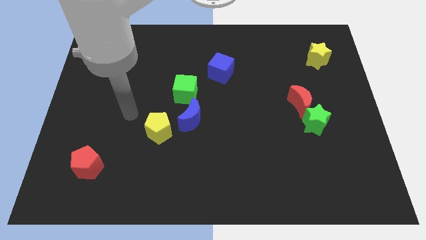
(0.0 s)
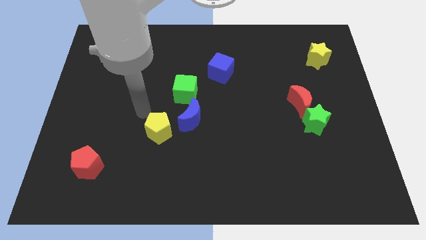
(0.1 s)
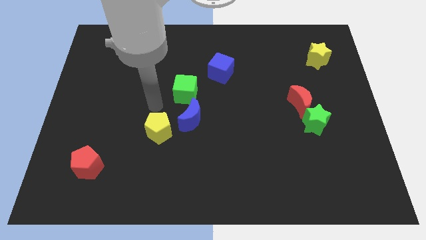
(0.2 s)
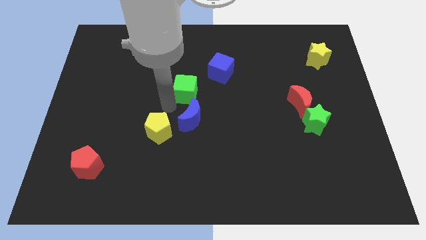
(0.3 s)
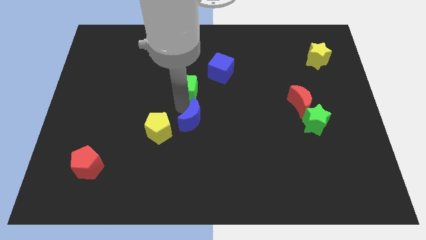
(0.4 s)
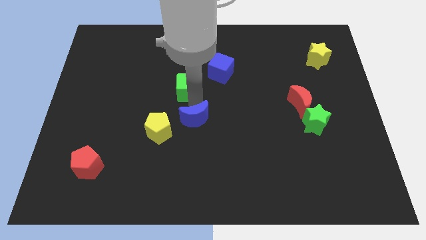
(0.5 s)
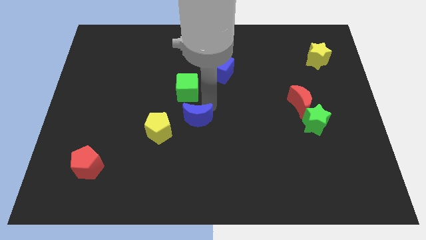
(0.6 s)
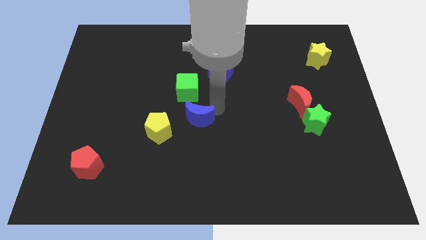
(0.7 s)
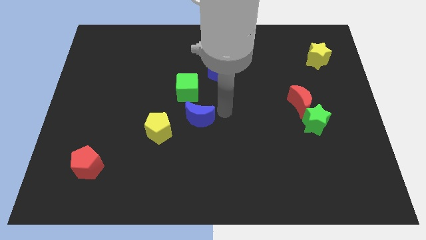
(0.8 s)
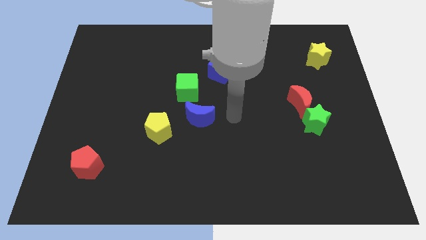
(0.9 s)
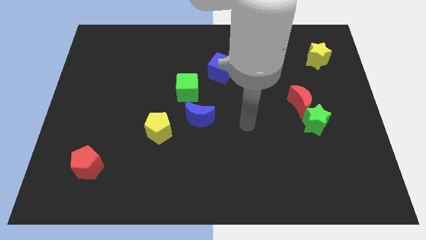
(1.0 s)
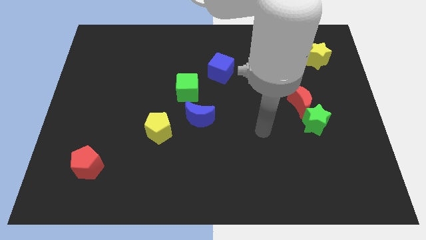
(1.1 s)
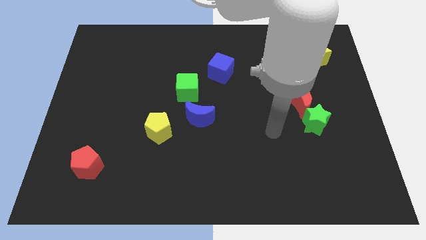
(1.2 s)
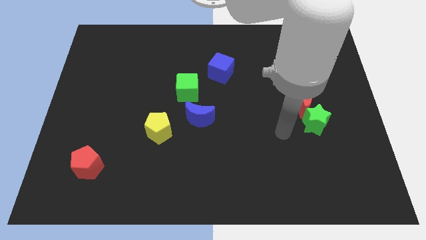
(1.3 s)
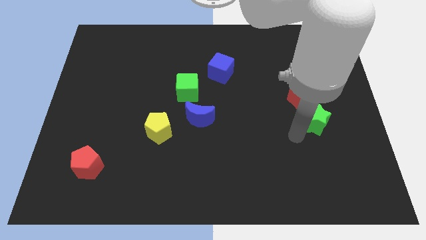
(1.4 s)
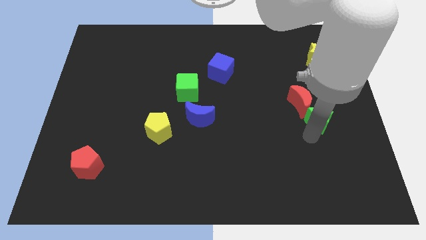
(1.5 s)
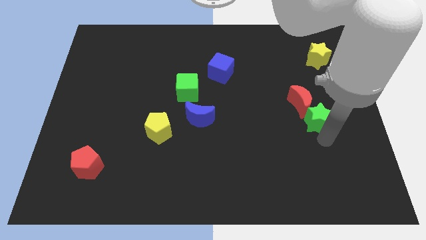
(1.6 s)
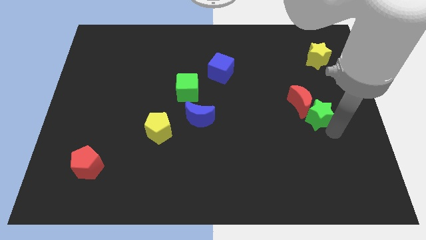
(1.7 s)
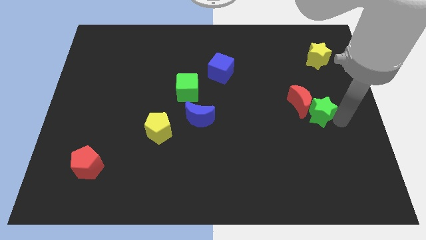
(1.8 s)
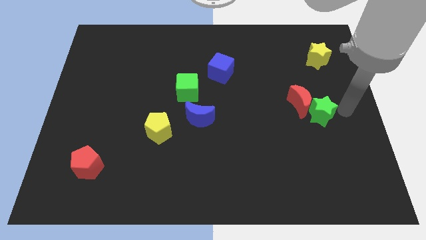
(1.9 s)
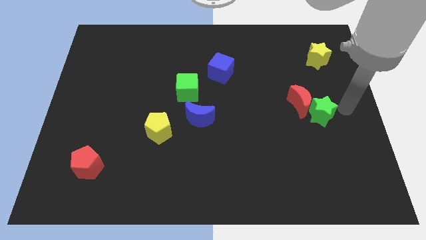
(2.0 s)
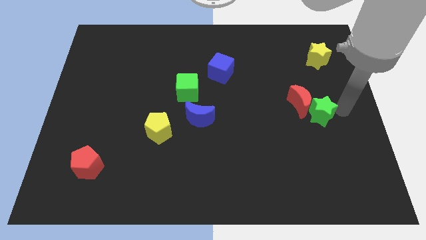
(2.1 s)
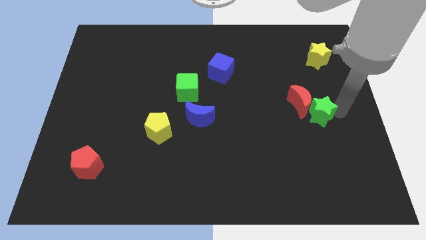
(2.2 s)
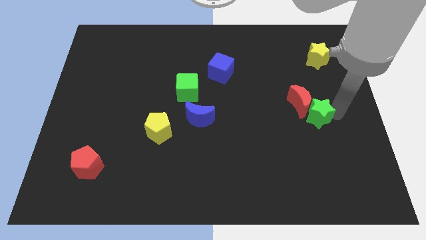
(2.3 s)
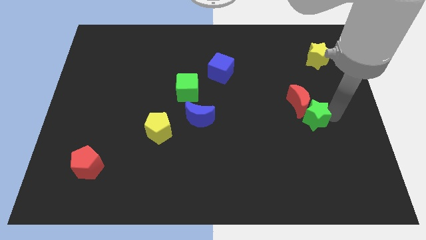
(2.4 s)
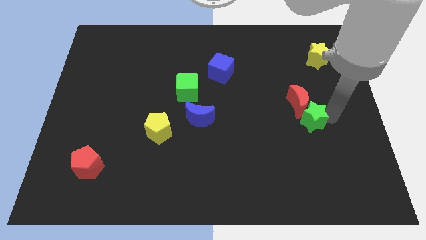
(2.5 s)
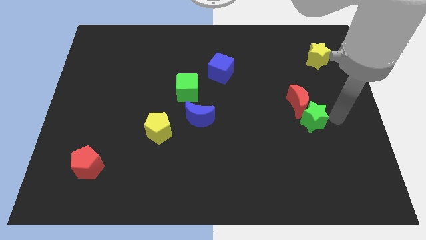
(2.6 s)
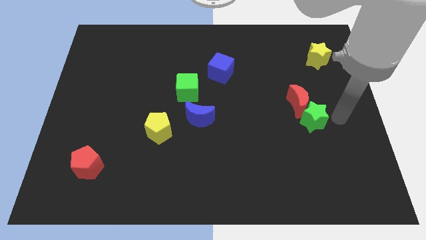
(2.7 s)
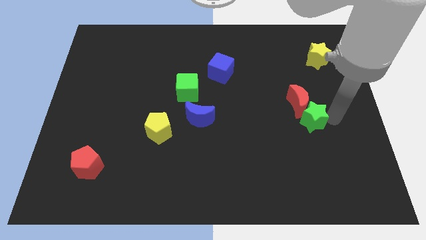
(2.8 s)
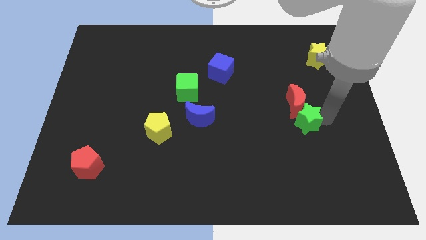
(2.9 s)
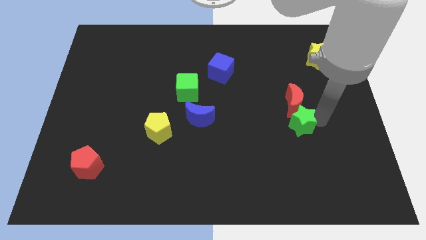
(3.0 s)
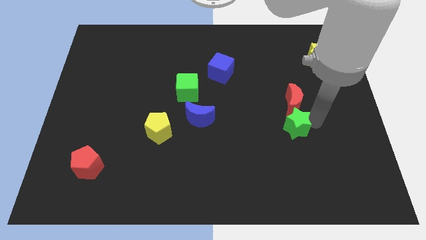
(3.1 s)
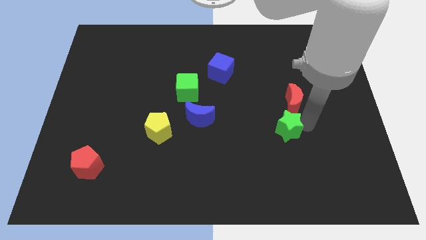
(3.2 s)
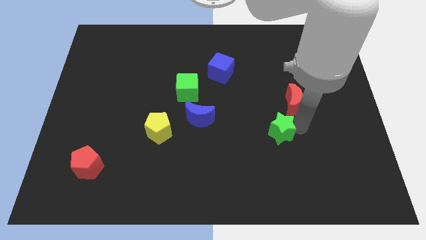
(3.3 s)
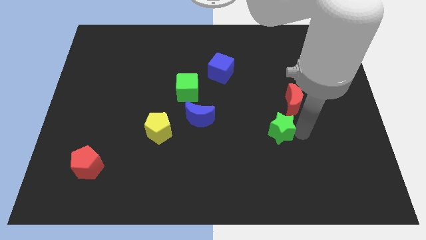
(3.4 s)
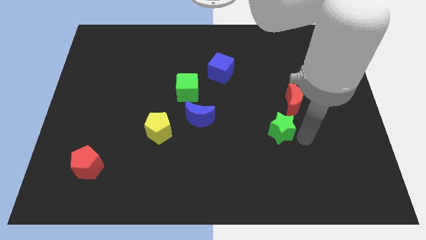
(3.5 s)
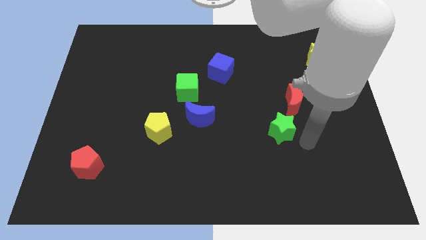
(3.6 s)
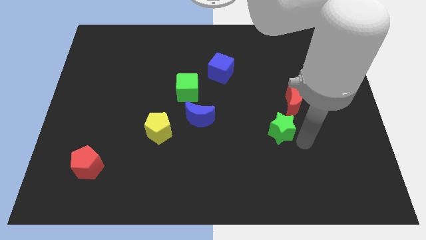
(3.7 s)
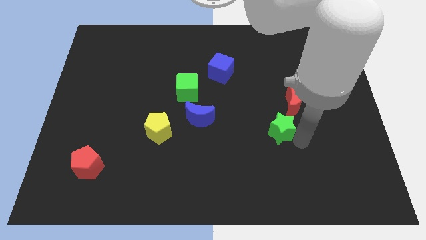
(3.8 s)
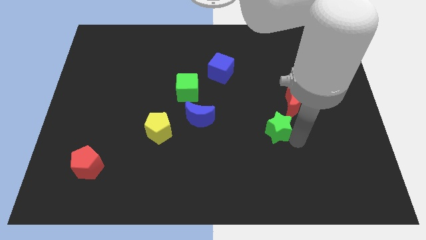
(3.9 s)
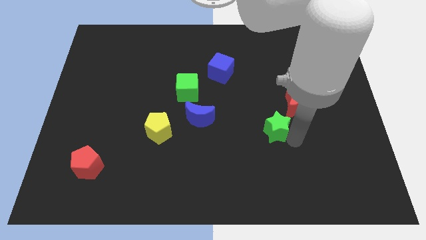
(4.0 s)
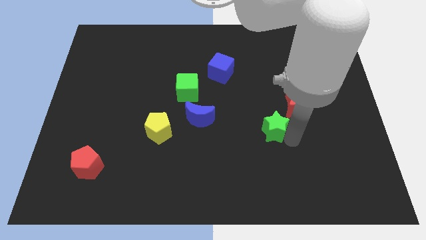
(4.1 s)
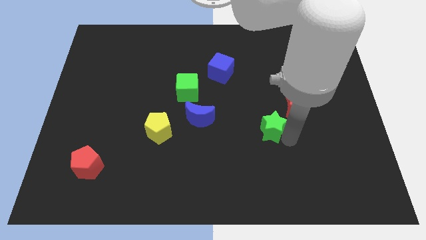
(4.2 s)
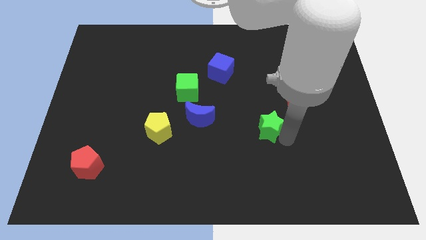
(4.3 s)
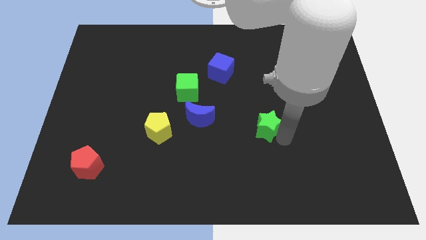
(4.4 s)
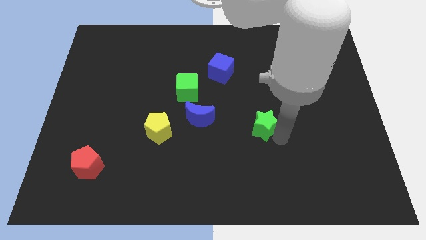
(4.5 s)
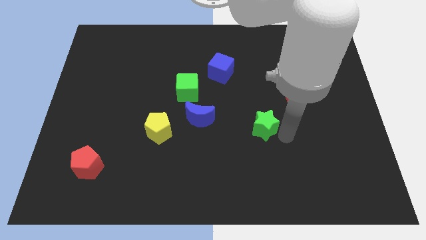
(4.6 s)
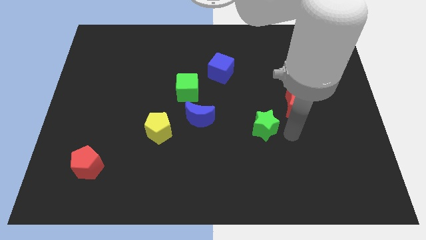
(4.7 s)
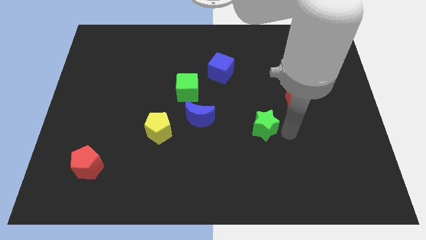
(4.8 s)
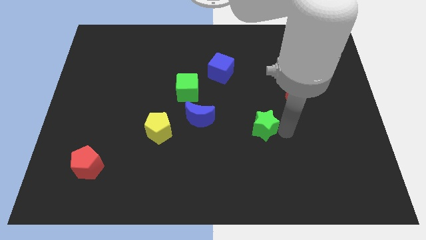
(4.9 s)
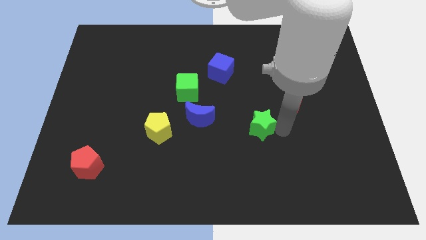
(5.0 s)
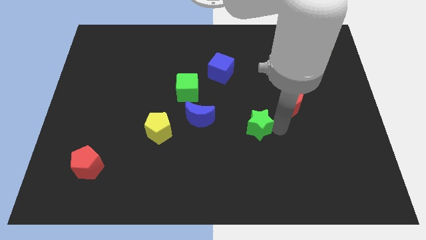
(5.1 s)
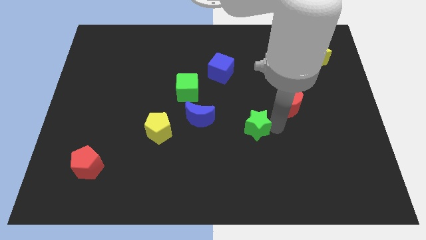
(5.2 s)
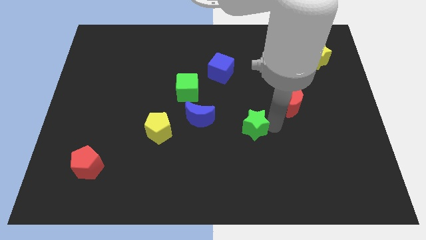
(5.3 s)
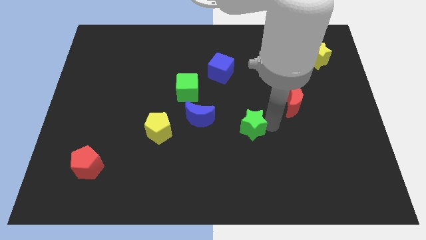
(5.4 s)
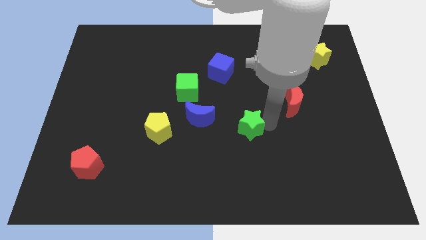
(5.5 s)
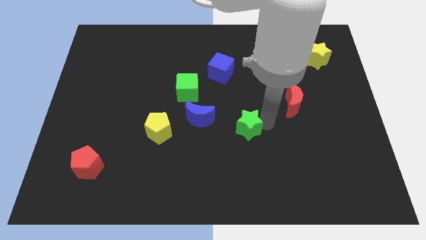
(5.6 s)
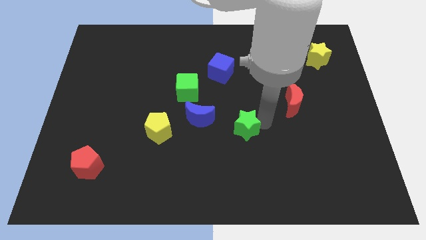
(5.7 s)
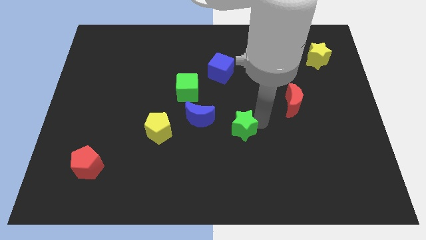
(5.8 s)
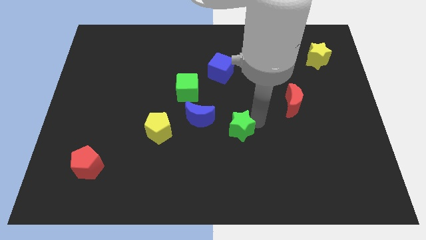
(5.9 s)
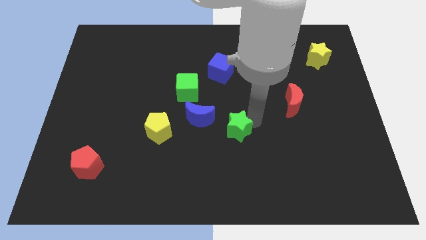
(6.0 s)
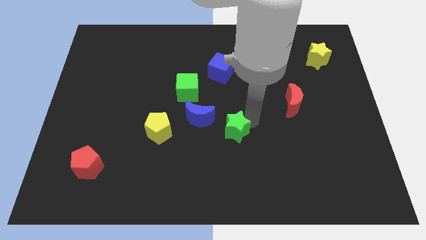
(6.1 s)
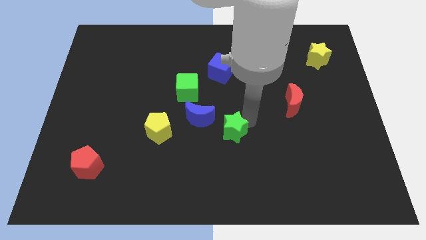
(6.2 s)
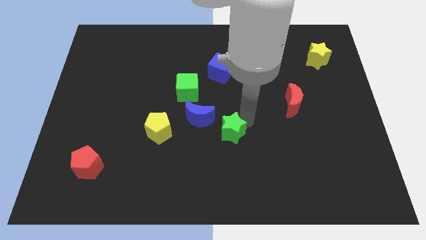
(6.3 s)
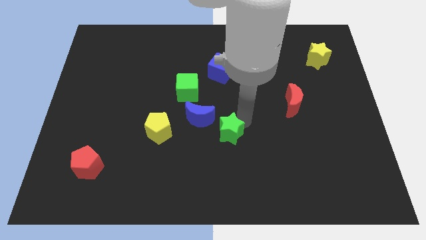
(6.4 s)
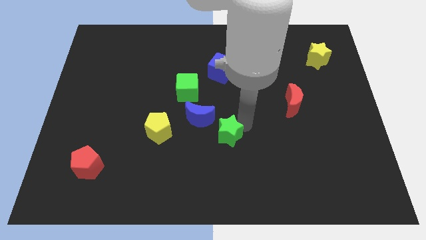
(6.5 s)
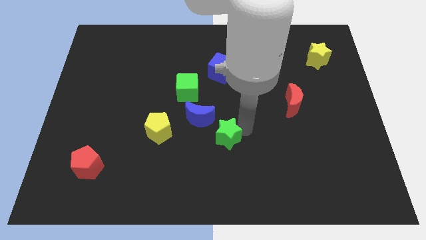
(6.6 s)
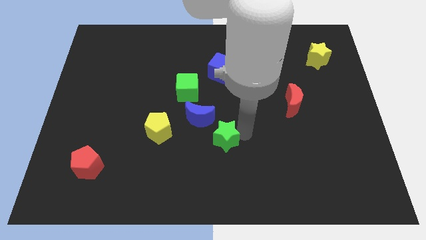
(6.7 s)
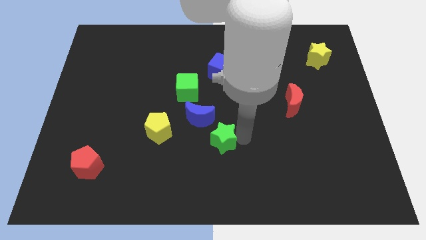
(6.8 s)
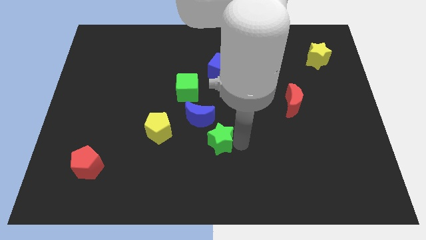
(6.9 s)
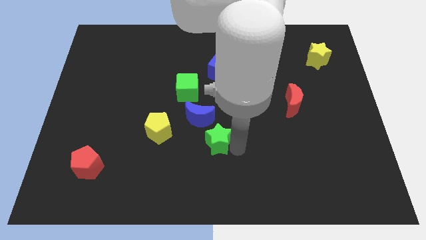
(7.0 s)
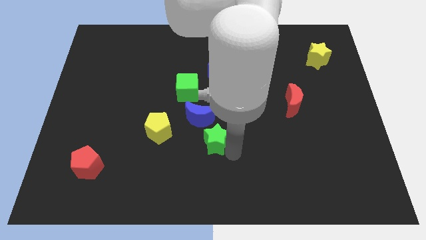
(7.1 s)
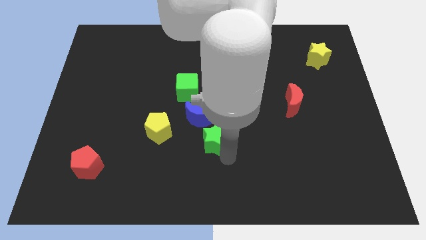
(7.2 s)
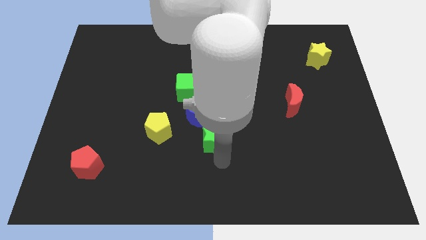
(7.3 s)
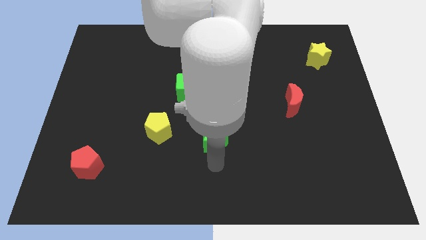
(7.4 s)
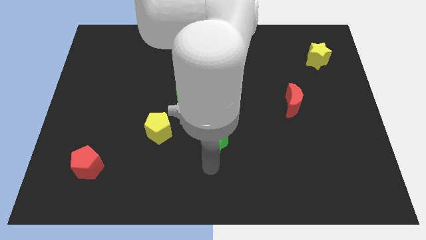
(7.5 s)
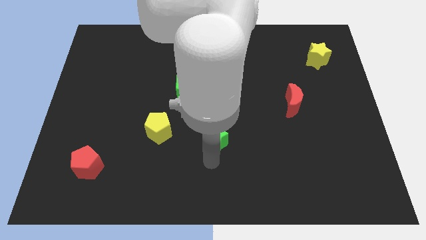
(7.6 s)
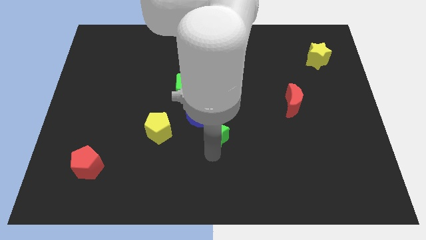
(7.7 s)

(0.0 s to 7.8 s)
push the green star close to the blue moon
